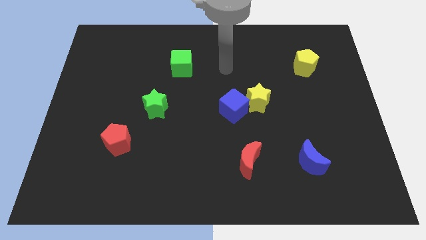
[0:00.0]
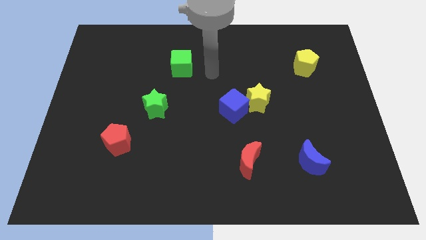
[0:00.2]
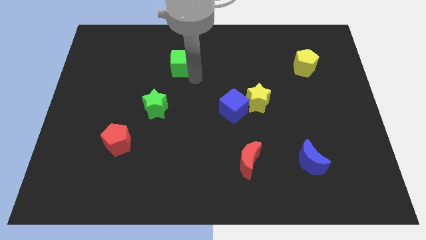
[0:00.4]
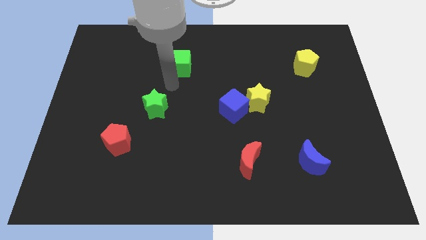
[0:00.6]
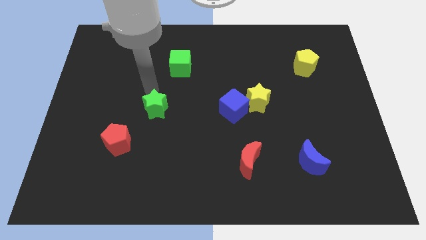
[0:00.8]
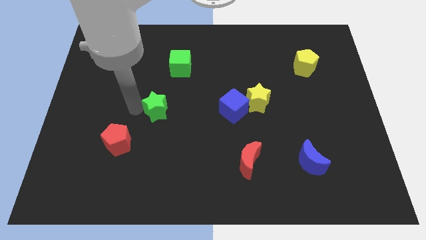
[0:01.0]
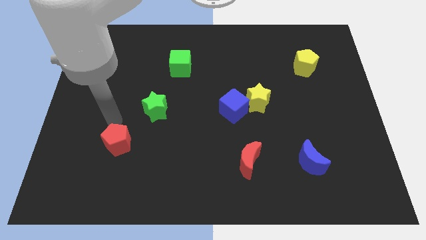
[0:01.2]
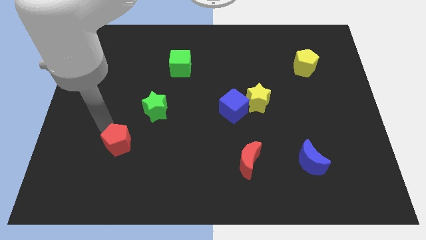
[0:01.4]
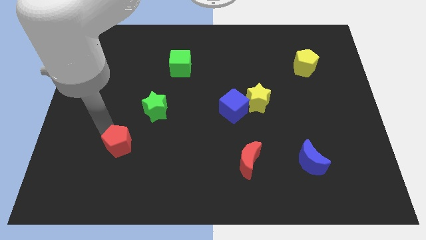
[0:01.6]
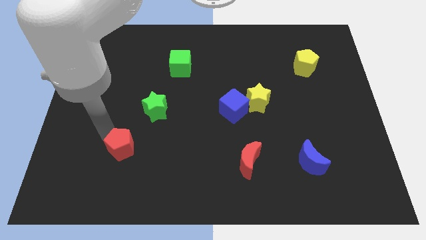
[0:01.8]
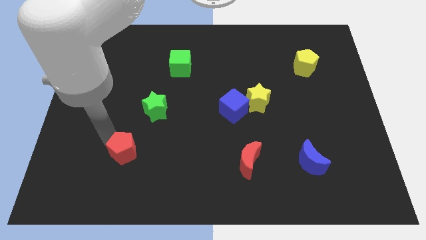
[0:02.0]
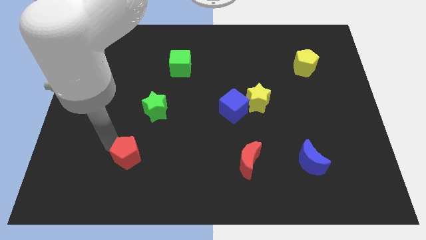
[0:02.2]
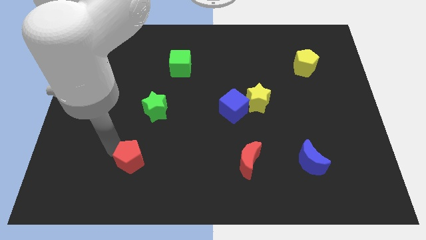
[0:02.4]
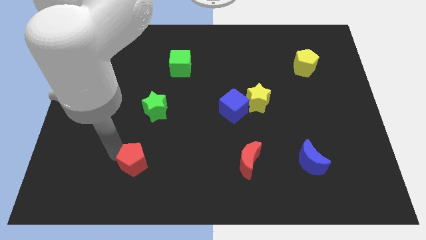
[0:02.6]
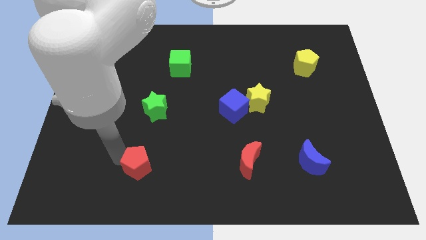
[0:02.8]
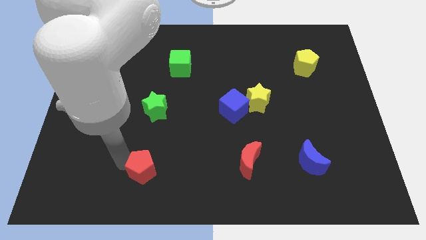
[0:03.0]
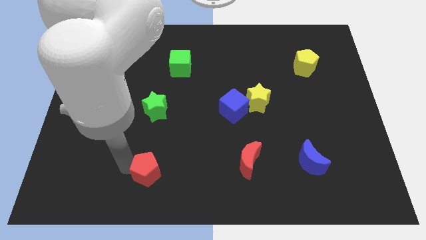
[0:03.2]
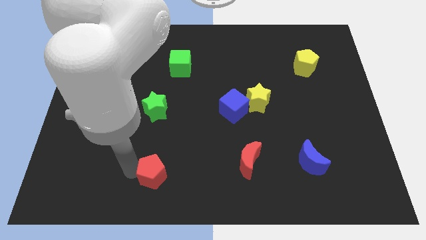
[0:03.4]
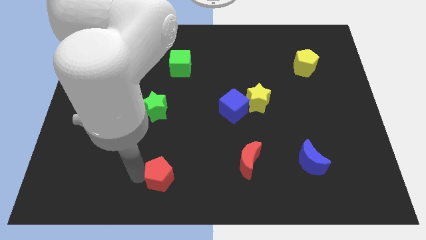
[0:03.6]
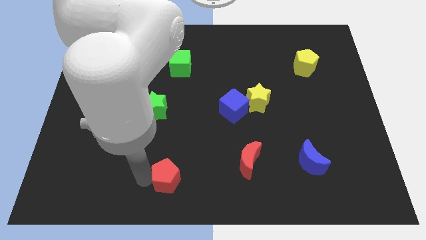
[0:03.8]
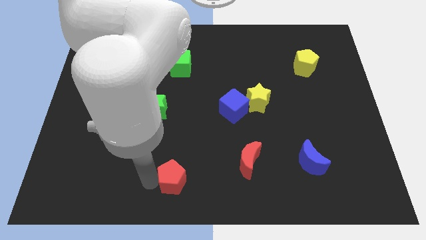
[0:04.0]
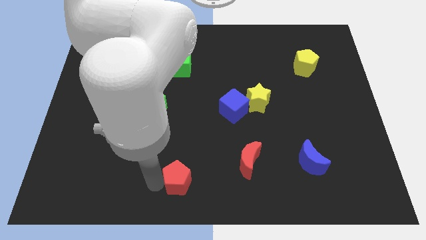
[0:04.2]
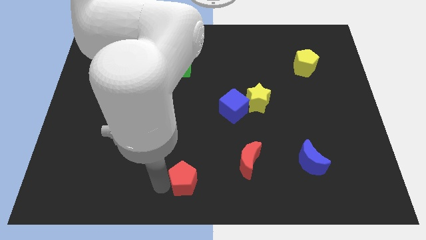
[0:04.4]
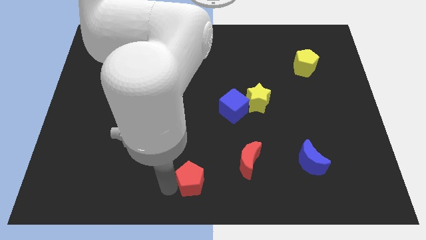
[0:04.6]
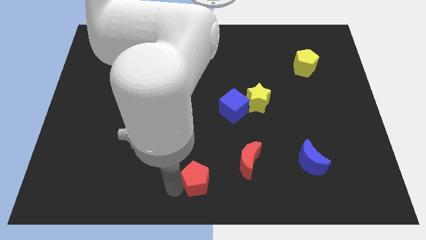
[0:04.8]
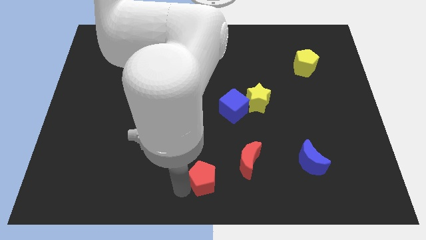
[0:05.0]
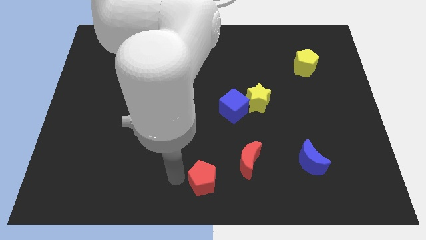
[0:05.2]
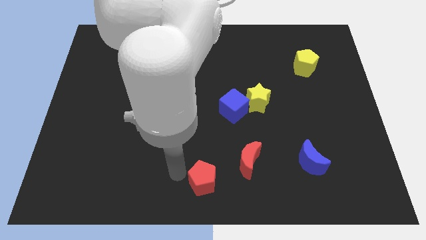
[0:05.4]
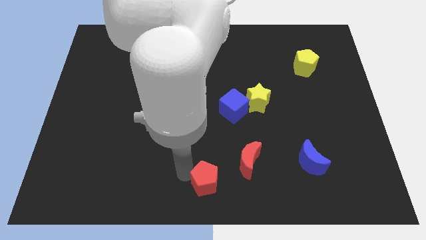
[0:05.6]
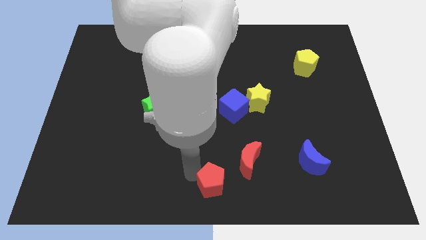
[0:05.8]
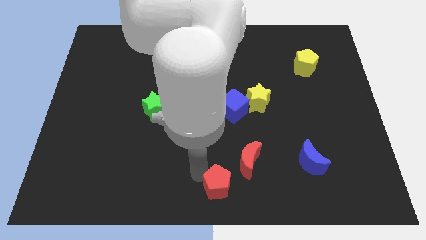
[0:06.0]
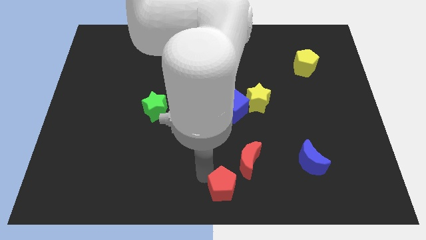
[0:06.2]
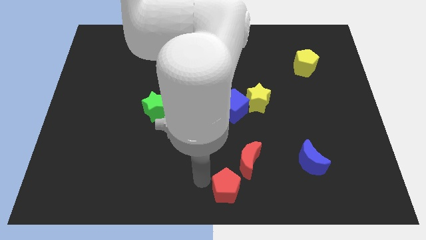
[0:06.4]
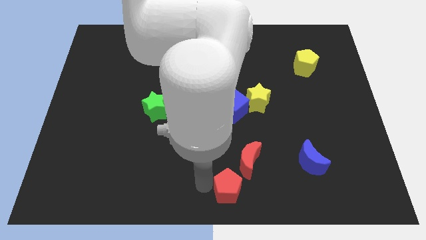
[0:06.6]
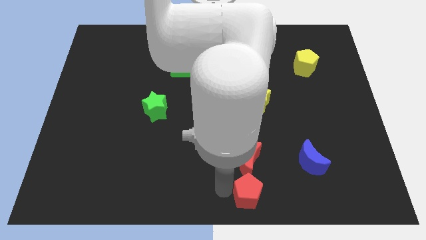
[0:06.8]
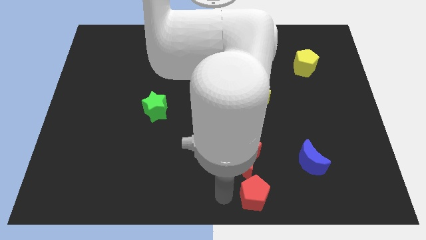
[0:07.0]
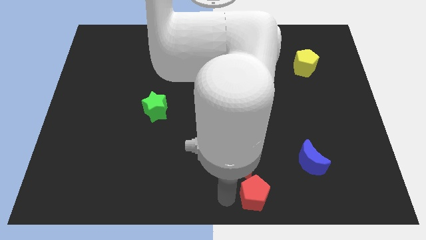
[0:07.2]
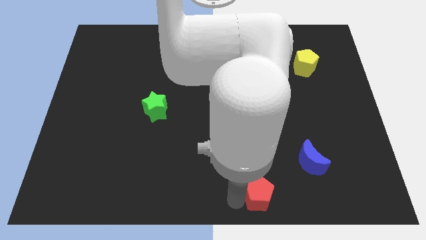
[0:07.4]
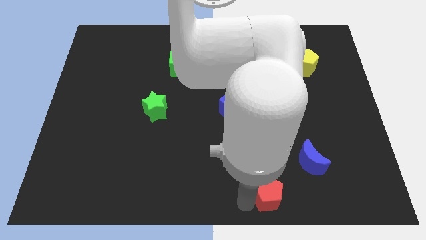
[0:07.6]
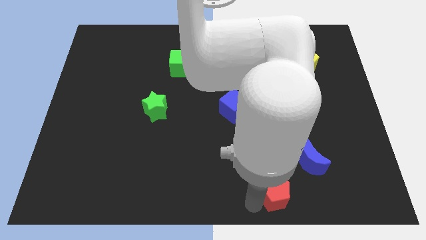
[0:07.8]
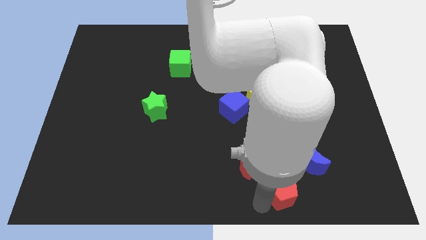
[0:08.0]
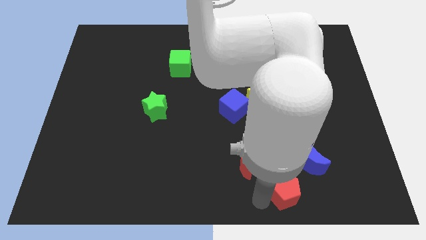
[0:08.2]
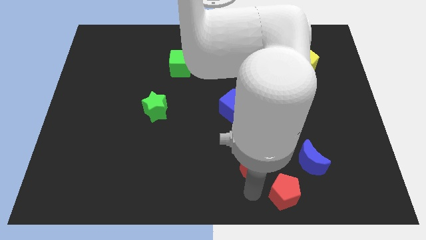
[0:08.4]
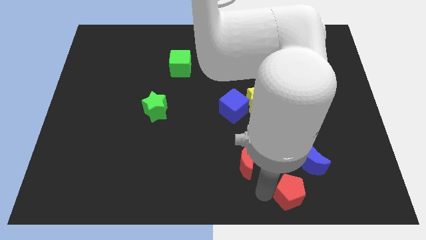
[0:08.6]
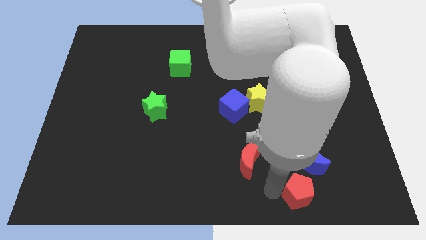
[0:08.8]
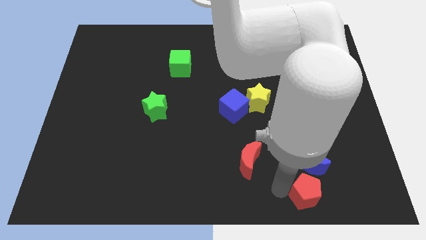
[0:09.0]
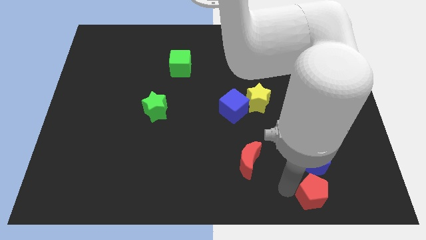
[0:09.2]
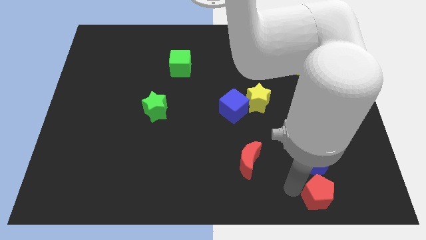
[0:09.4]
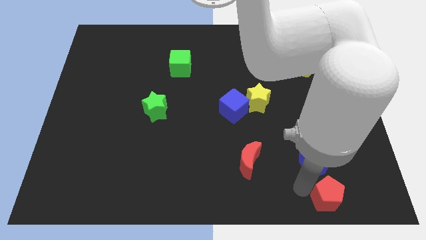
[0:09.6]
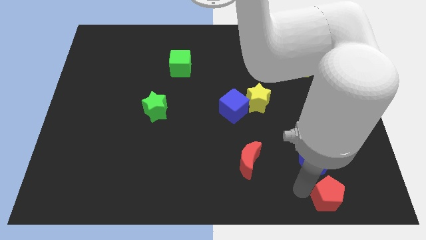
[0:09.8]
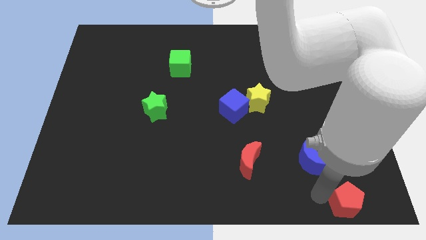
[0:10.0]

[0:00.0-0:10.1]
move the red pentagon to the bottom right corner

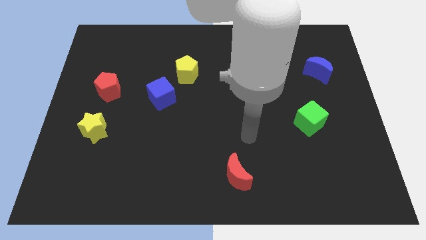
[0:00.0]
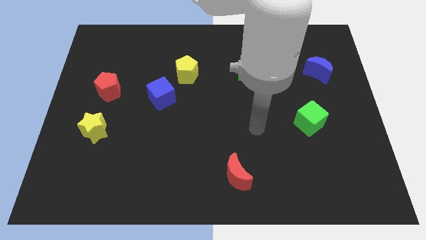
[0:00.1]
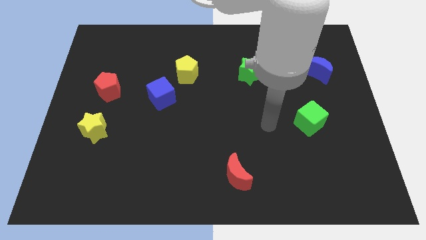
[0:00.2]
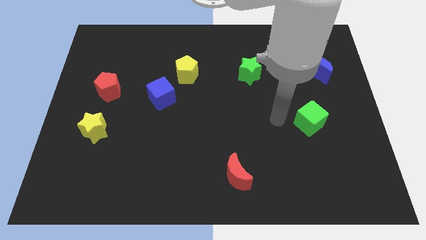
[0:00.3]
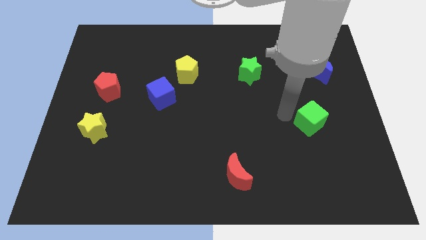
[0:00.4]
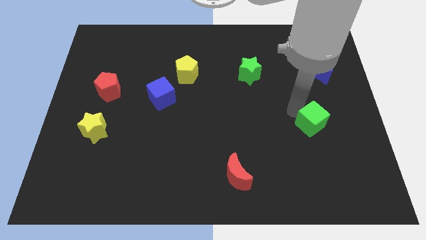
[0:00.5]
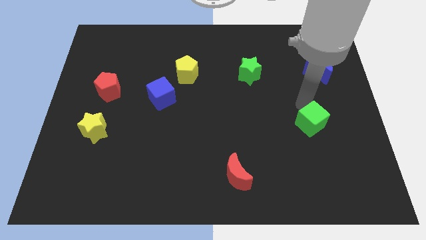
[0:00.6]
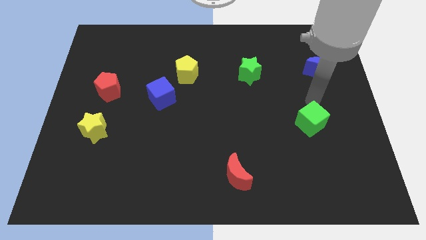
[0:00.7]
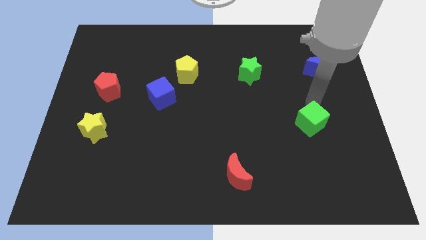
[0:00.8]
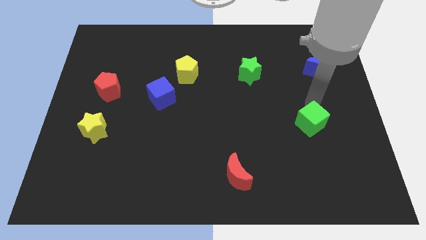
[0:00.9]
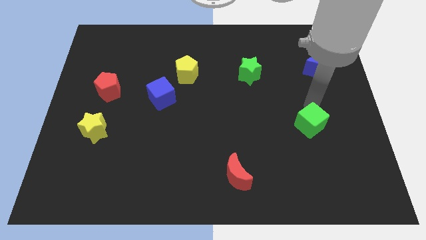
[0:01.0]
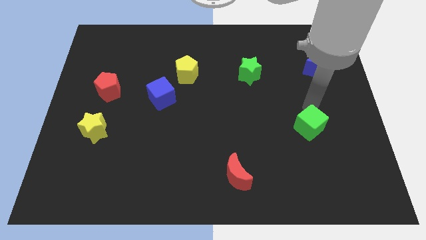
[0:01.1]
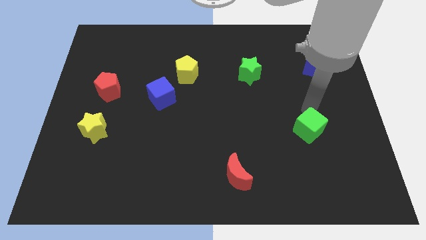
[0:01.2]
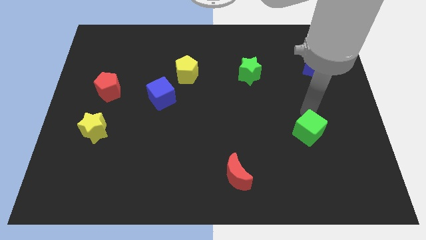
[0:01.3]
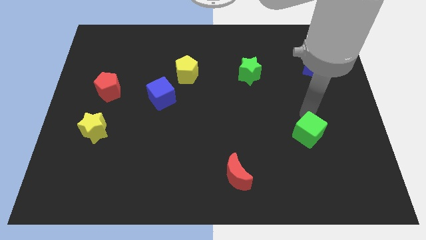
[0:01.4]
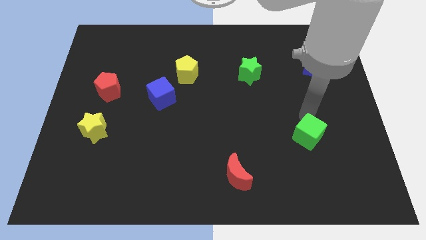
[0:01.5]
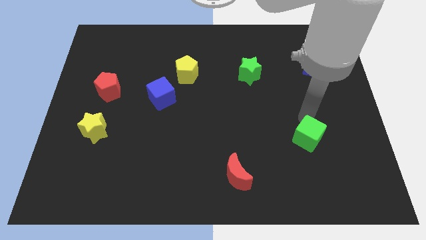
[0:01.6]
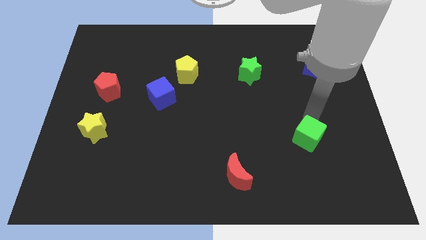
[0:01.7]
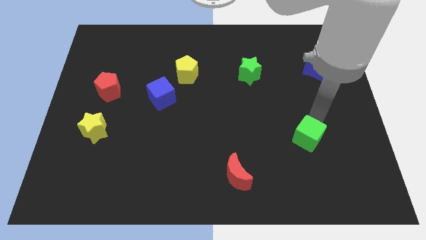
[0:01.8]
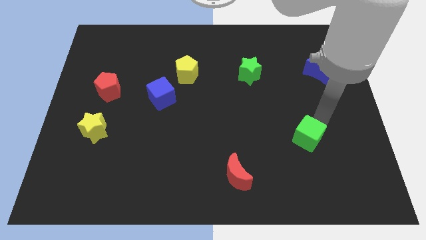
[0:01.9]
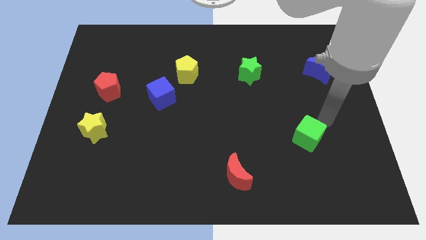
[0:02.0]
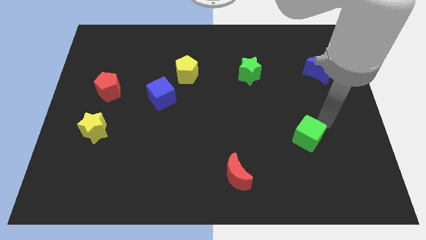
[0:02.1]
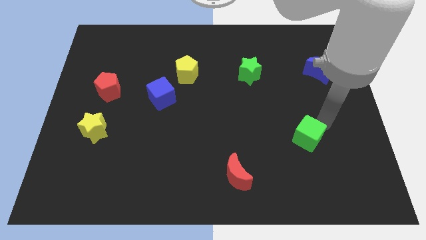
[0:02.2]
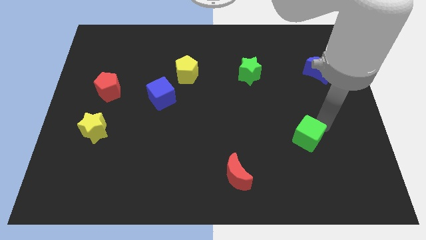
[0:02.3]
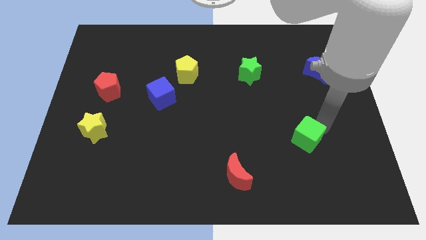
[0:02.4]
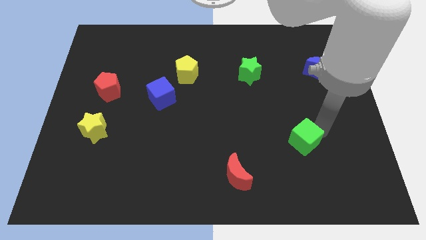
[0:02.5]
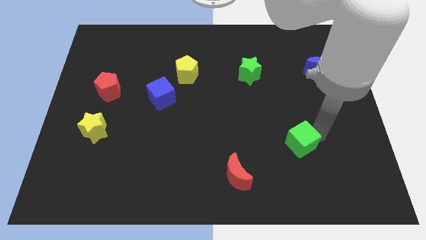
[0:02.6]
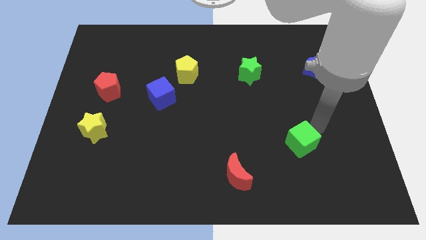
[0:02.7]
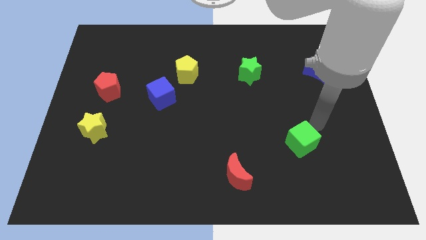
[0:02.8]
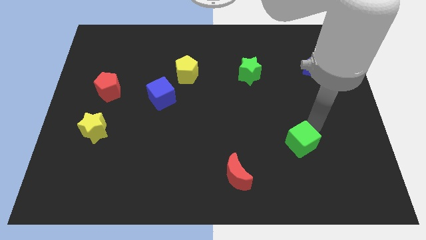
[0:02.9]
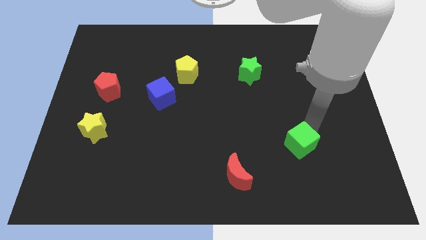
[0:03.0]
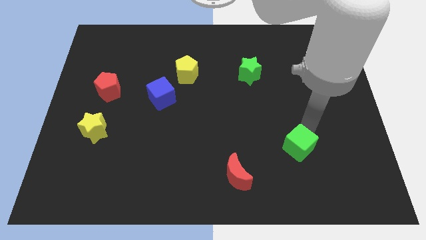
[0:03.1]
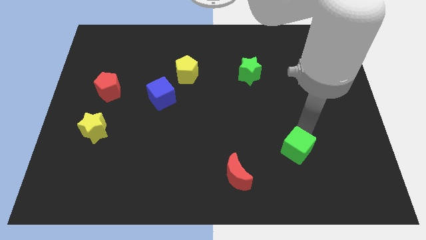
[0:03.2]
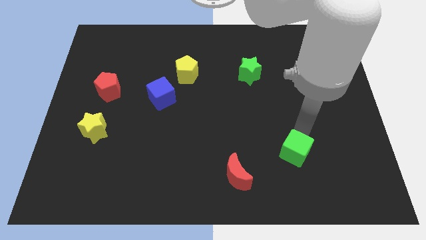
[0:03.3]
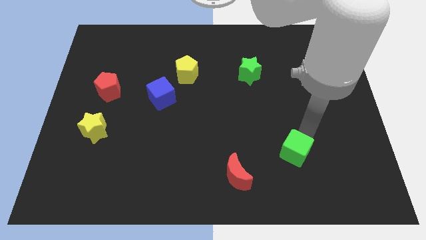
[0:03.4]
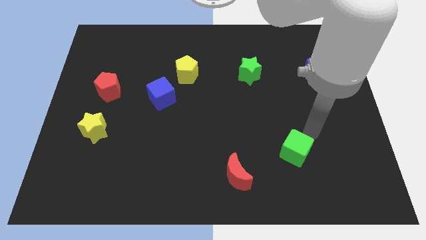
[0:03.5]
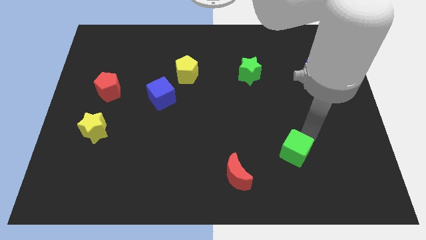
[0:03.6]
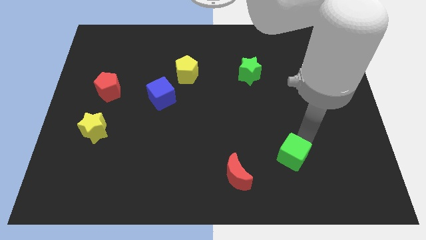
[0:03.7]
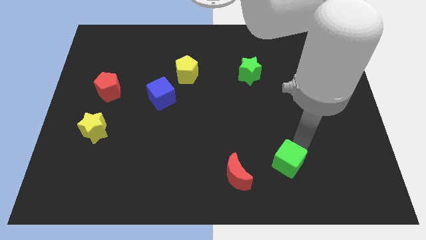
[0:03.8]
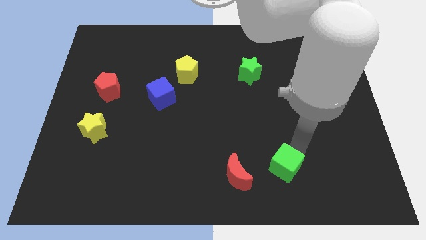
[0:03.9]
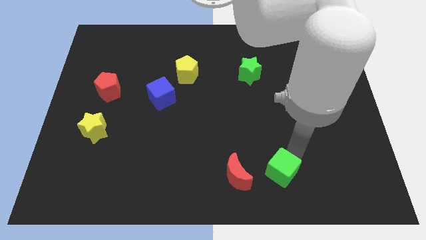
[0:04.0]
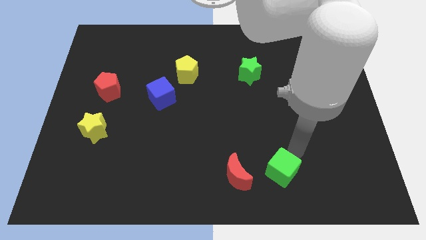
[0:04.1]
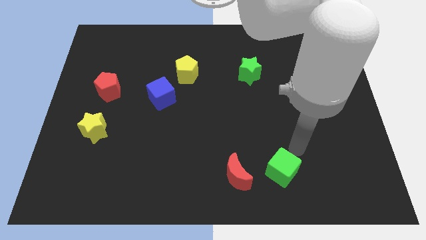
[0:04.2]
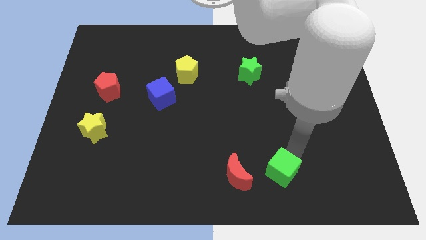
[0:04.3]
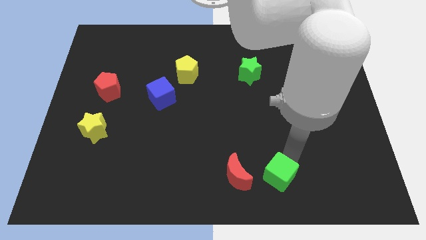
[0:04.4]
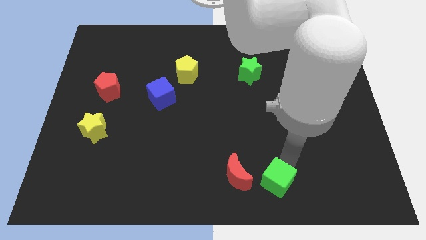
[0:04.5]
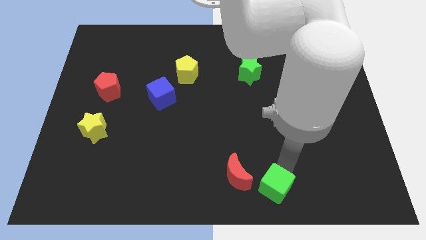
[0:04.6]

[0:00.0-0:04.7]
slide the green cube to the bottom side
